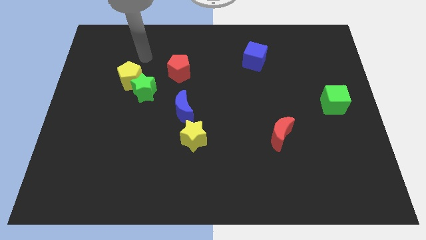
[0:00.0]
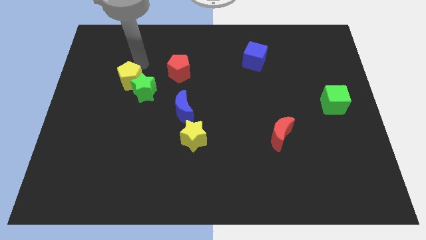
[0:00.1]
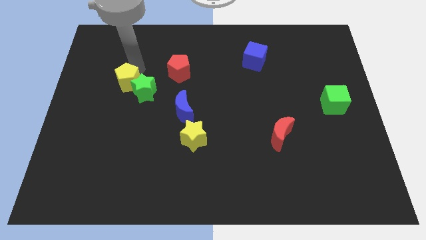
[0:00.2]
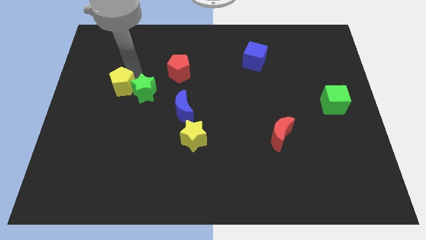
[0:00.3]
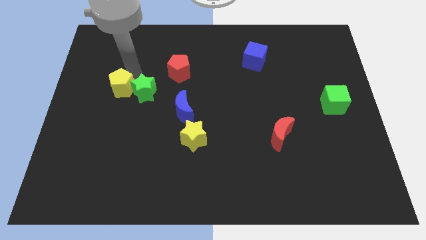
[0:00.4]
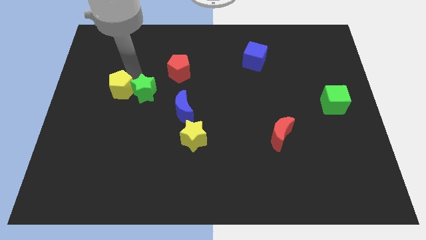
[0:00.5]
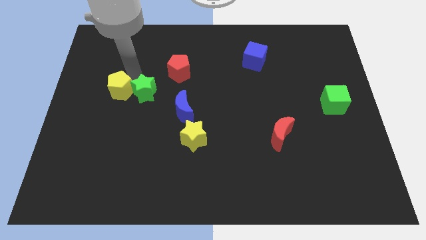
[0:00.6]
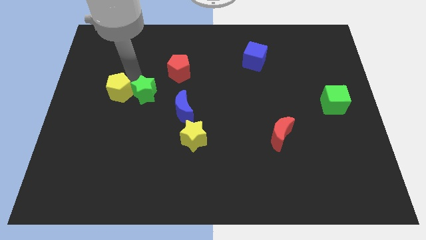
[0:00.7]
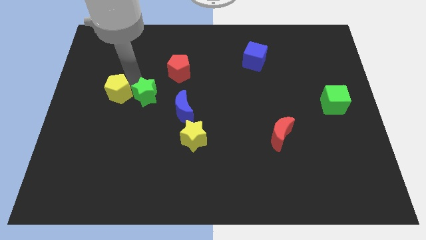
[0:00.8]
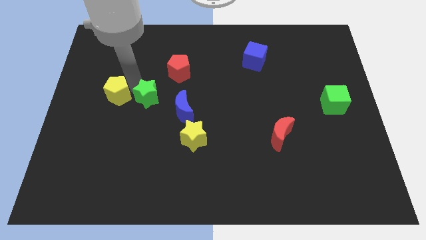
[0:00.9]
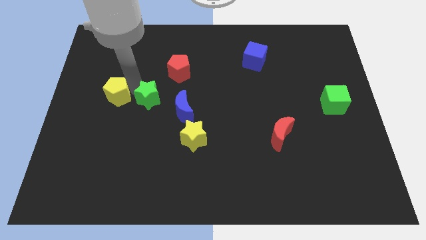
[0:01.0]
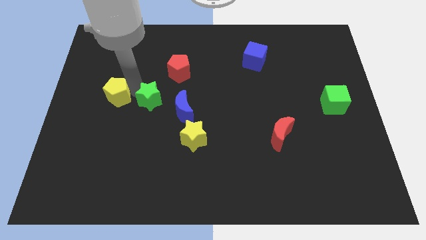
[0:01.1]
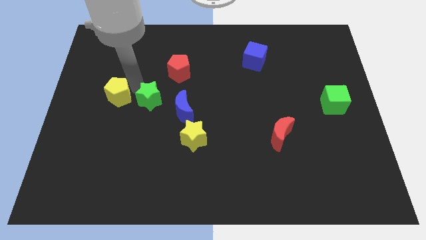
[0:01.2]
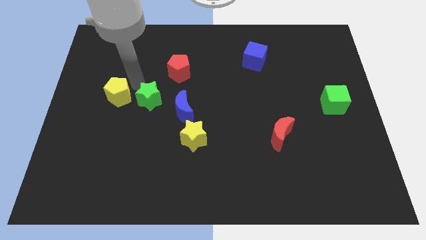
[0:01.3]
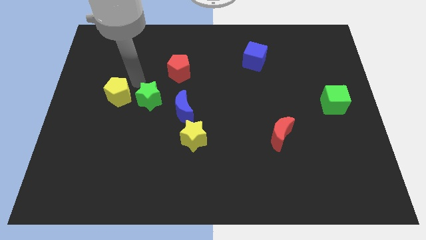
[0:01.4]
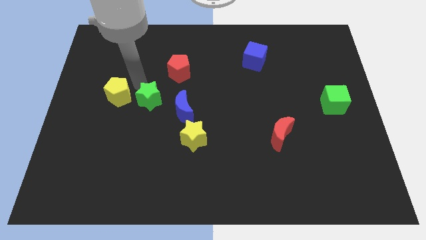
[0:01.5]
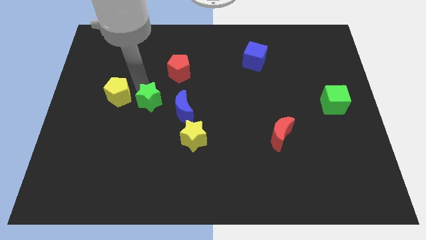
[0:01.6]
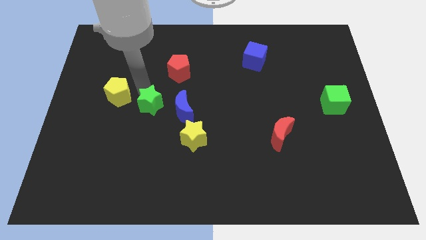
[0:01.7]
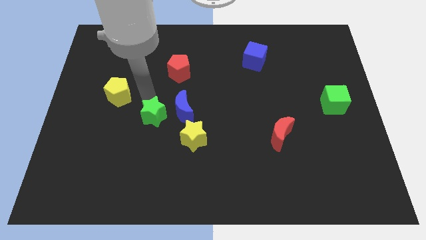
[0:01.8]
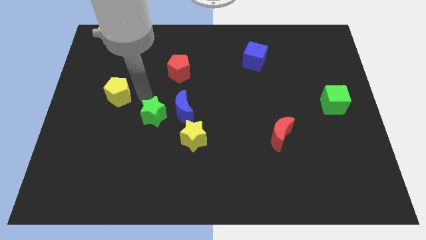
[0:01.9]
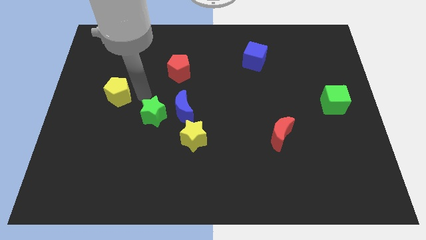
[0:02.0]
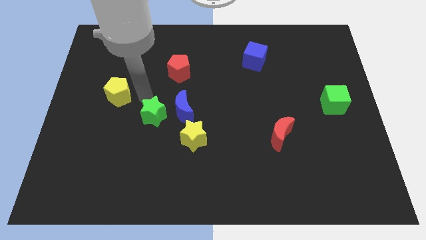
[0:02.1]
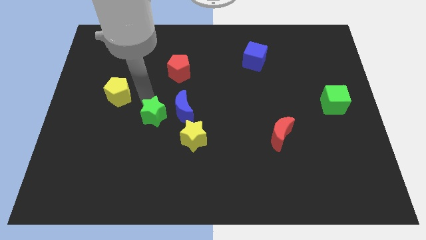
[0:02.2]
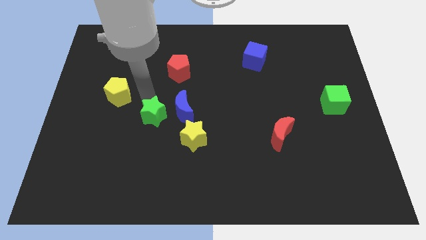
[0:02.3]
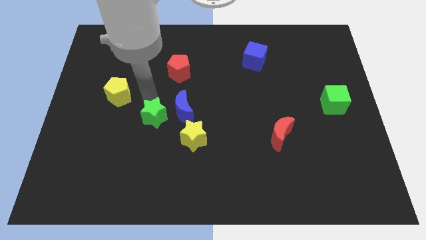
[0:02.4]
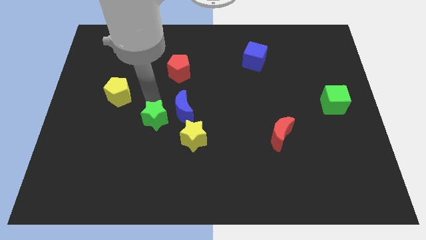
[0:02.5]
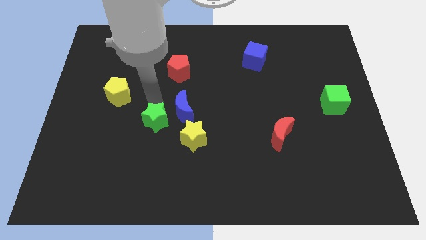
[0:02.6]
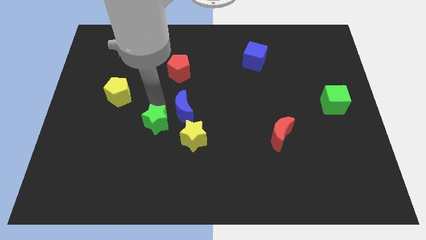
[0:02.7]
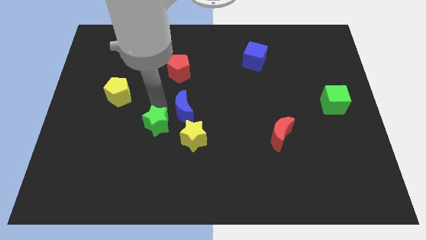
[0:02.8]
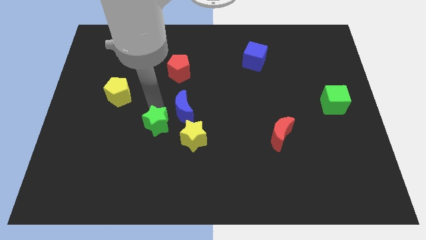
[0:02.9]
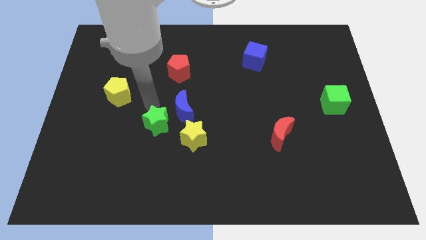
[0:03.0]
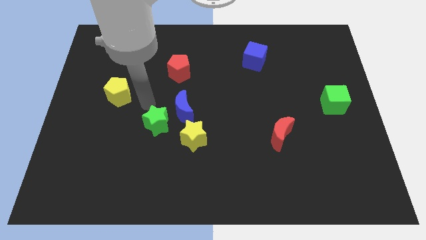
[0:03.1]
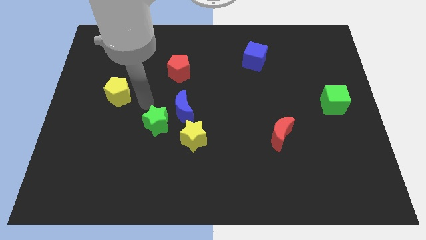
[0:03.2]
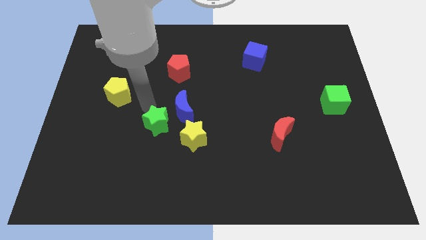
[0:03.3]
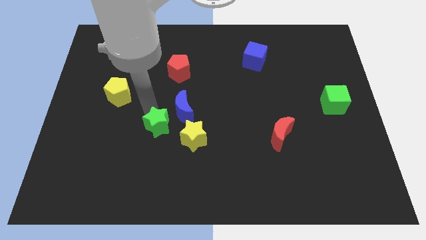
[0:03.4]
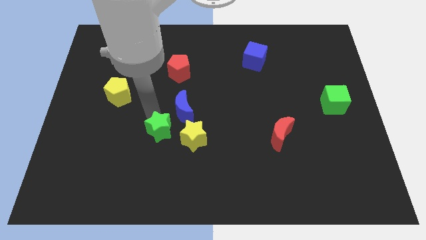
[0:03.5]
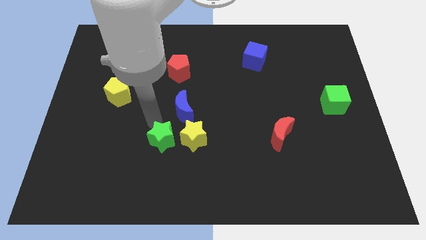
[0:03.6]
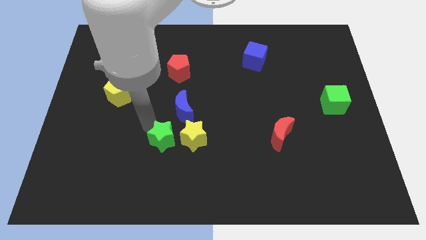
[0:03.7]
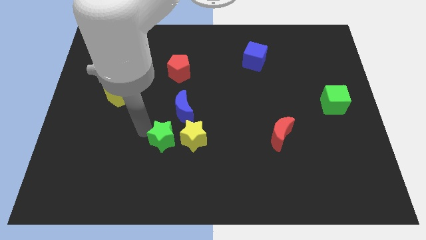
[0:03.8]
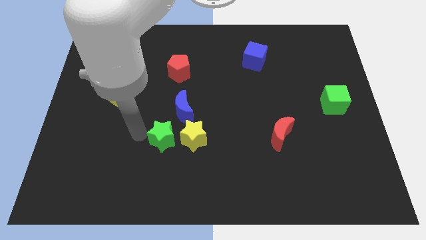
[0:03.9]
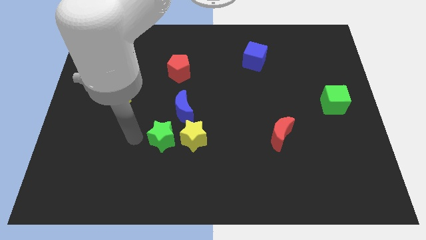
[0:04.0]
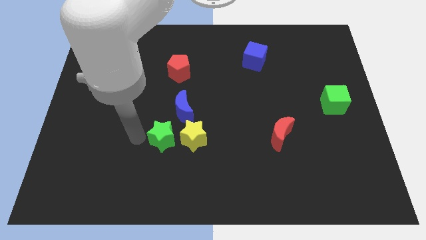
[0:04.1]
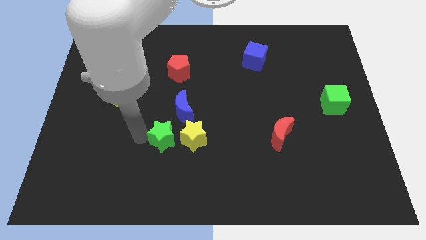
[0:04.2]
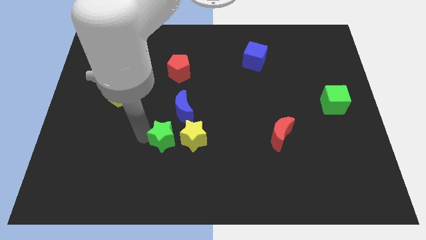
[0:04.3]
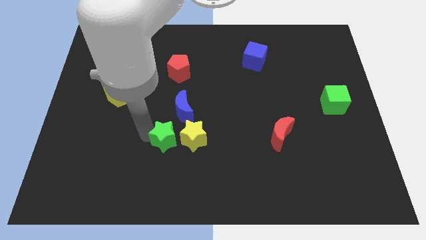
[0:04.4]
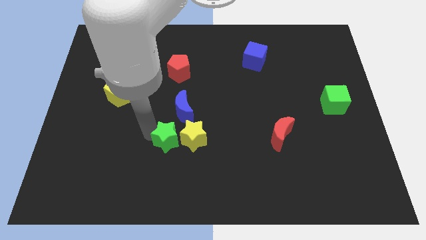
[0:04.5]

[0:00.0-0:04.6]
push the green star next to the yellow star

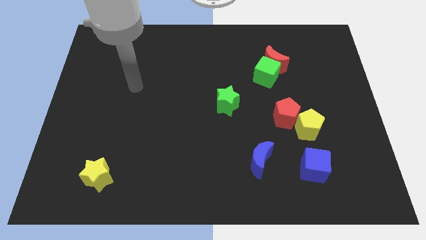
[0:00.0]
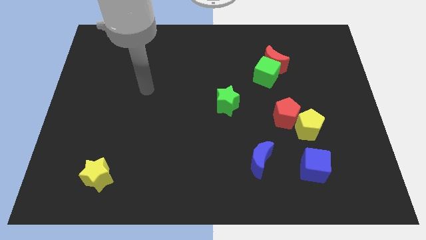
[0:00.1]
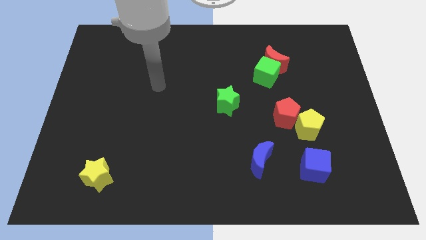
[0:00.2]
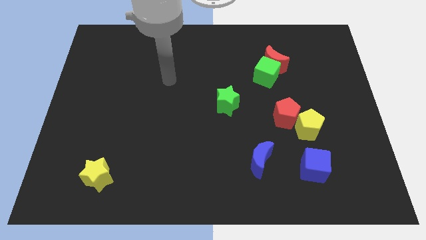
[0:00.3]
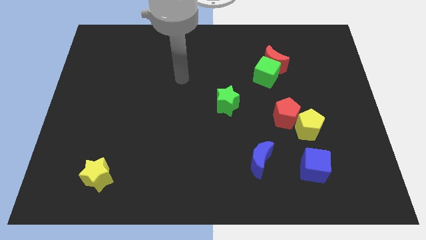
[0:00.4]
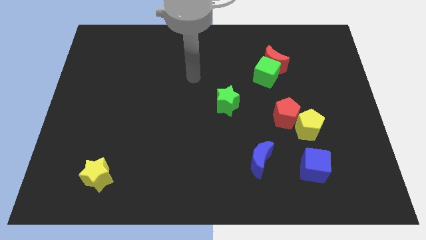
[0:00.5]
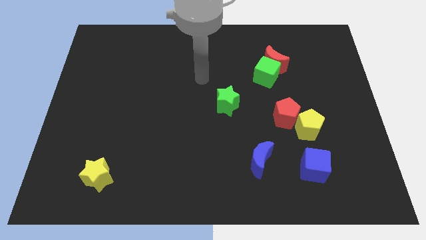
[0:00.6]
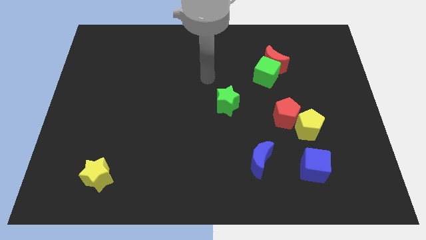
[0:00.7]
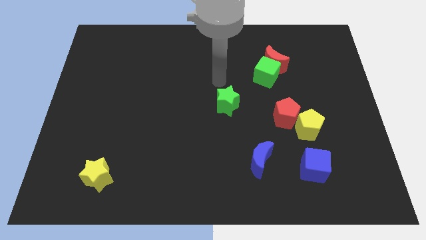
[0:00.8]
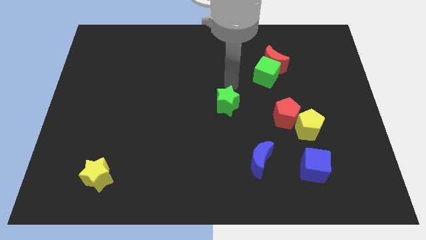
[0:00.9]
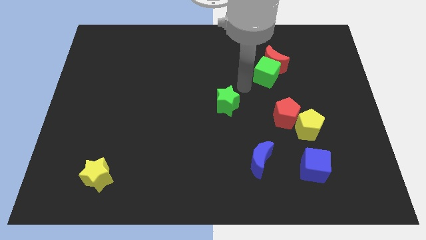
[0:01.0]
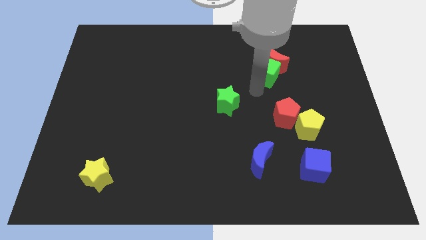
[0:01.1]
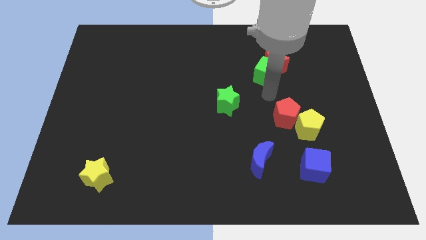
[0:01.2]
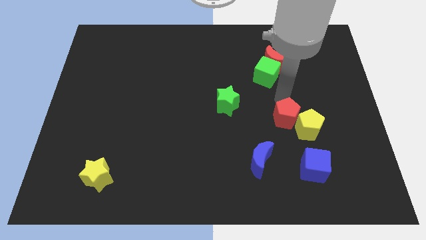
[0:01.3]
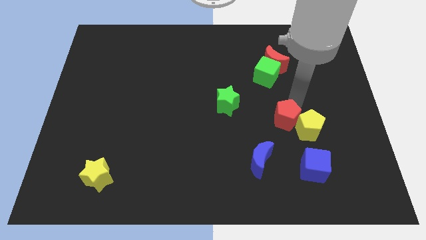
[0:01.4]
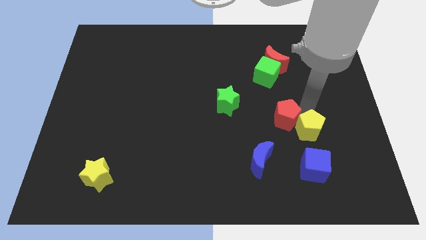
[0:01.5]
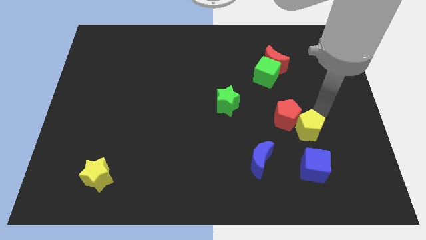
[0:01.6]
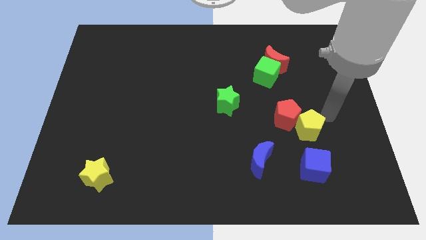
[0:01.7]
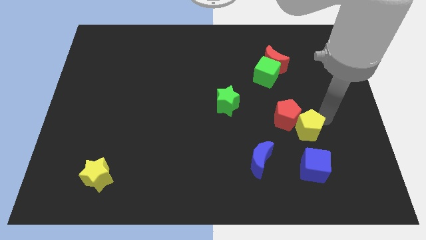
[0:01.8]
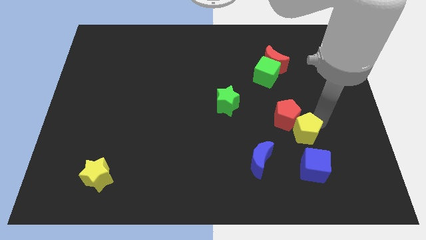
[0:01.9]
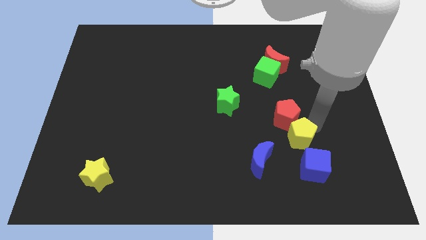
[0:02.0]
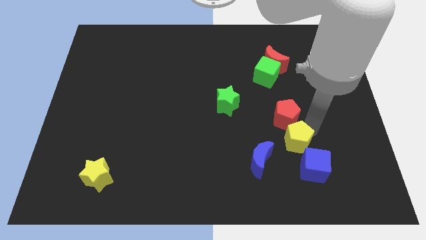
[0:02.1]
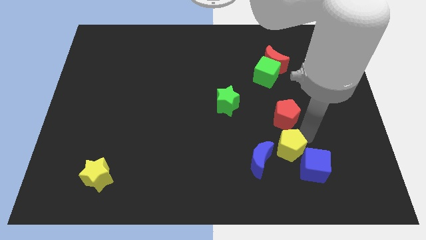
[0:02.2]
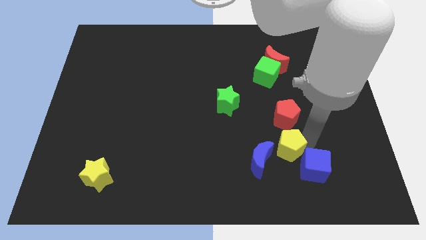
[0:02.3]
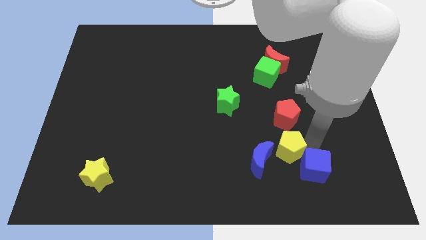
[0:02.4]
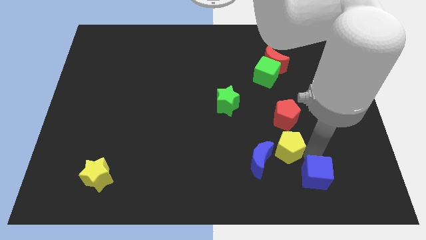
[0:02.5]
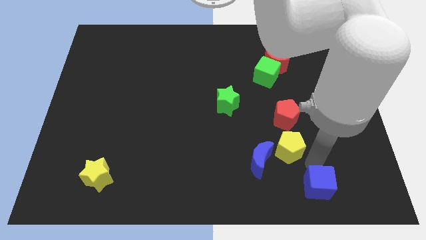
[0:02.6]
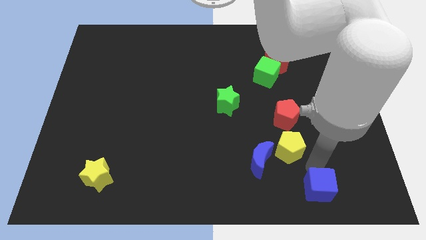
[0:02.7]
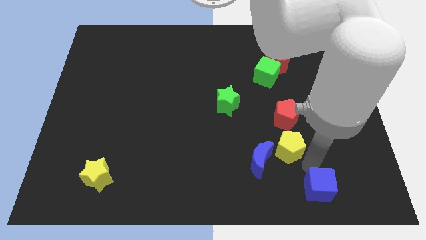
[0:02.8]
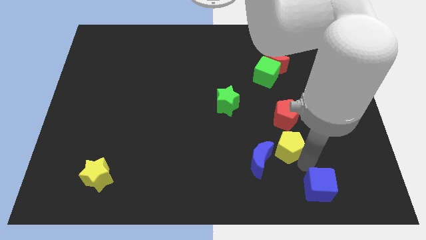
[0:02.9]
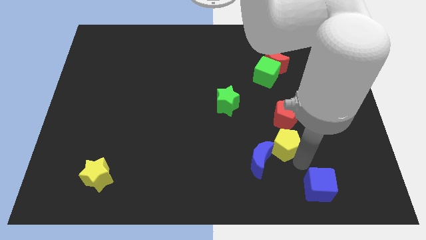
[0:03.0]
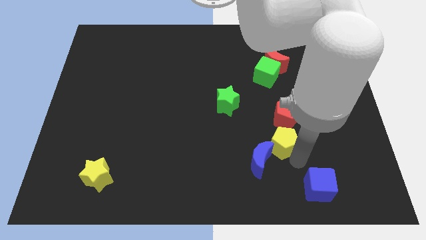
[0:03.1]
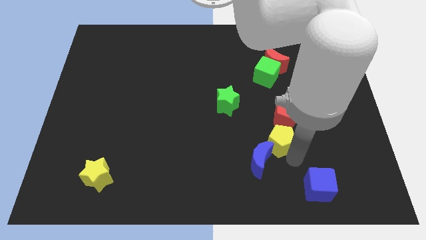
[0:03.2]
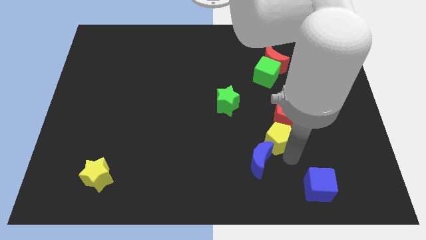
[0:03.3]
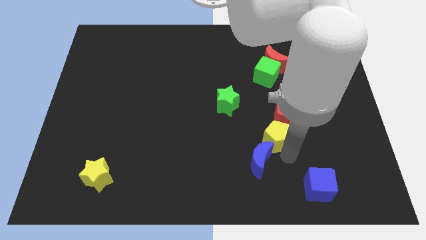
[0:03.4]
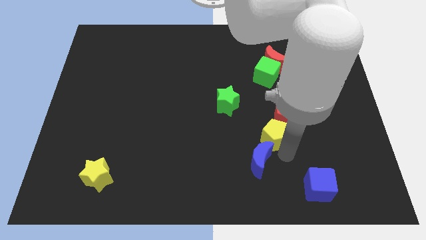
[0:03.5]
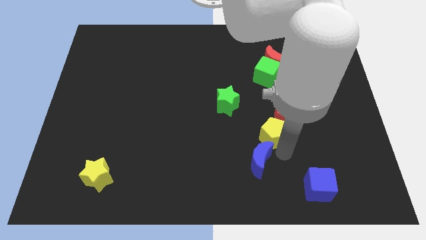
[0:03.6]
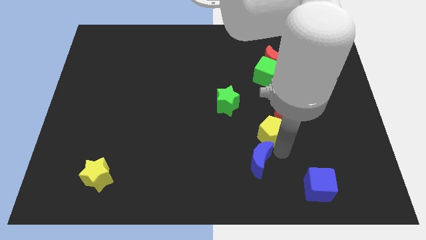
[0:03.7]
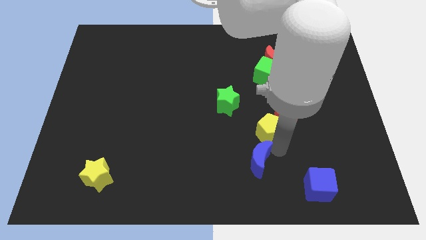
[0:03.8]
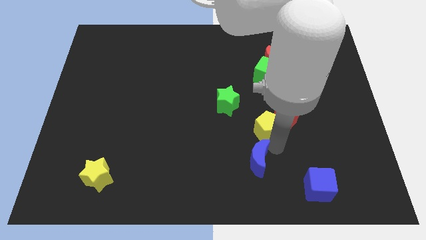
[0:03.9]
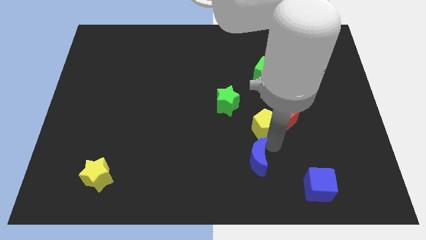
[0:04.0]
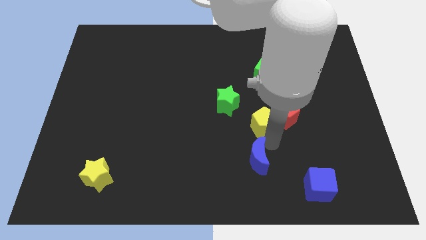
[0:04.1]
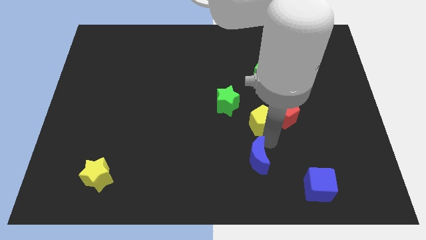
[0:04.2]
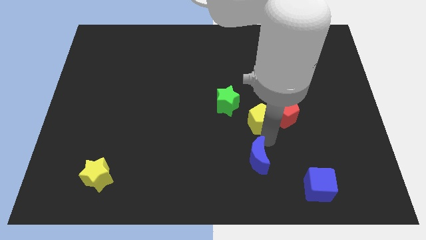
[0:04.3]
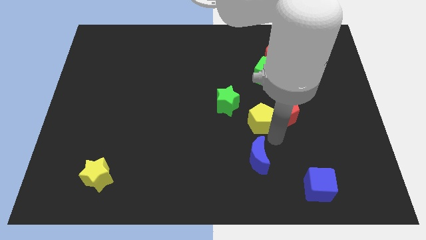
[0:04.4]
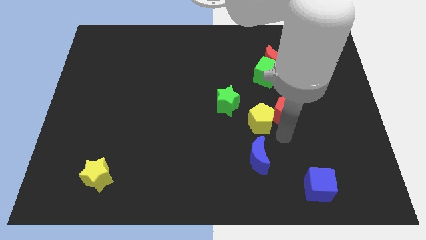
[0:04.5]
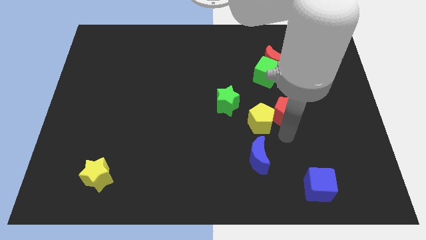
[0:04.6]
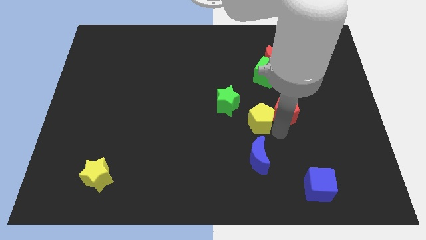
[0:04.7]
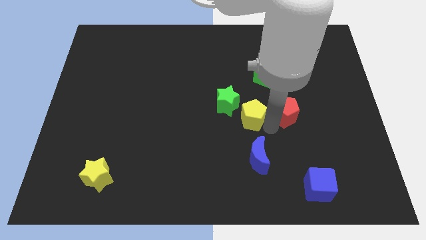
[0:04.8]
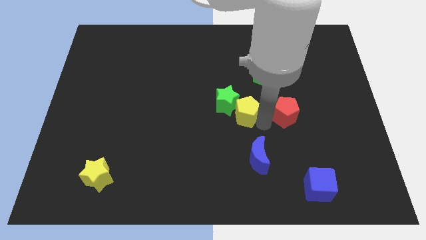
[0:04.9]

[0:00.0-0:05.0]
push the yellow pentagon close to the green star
